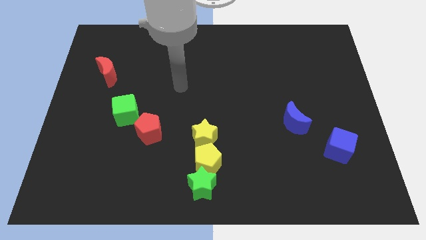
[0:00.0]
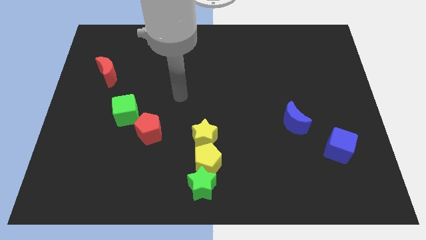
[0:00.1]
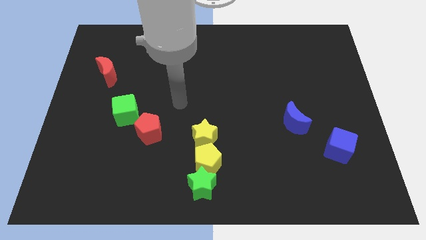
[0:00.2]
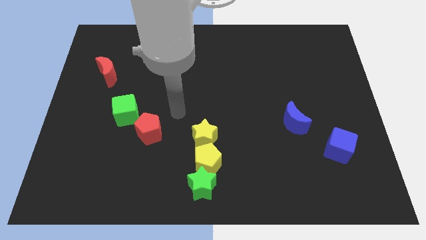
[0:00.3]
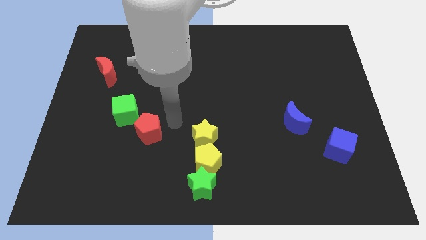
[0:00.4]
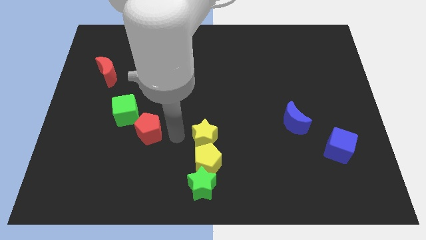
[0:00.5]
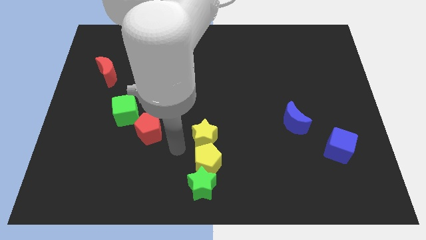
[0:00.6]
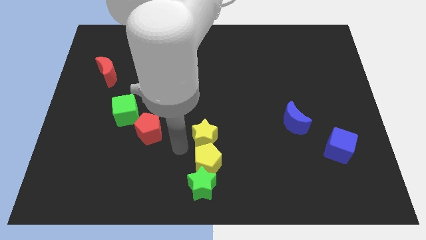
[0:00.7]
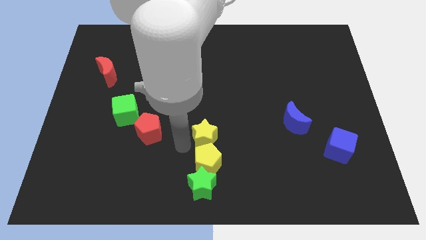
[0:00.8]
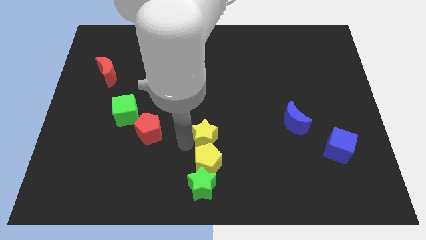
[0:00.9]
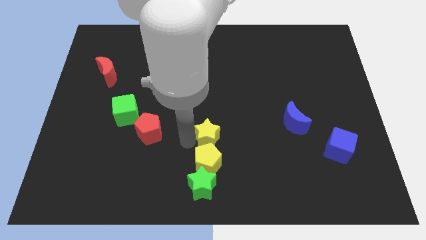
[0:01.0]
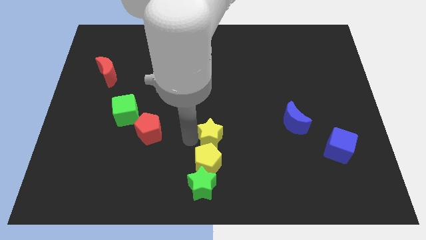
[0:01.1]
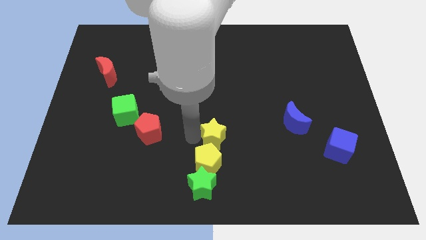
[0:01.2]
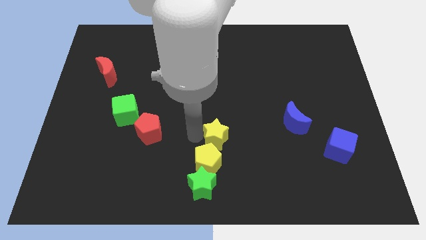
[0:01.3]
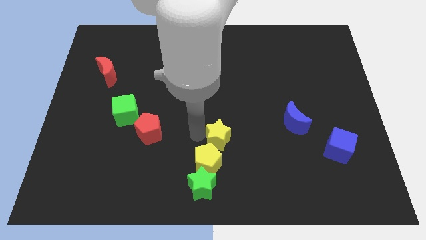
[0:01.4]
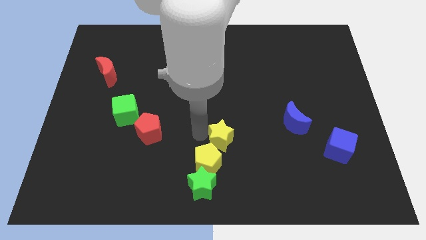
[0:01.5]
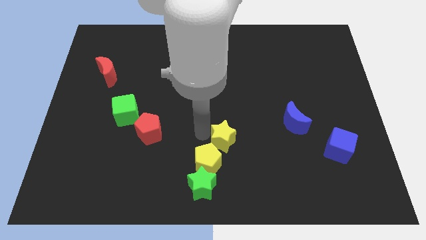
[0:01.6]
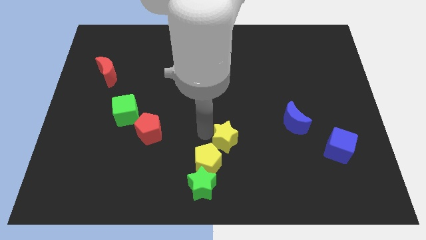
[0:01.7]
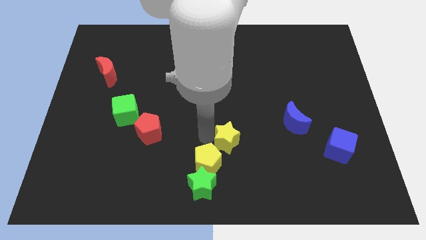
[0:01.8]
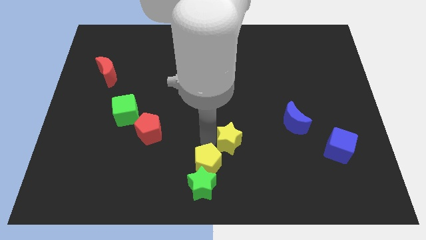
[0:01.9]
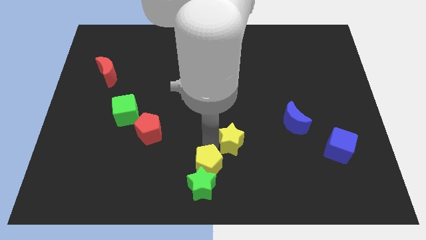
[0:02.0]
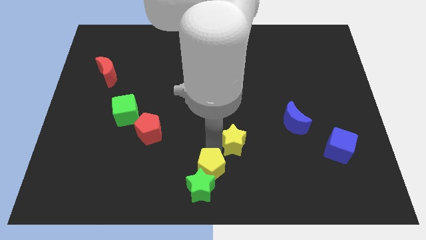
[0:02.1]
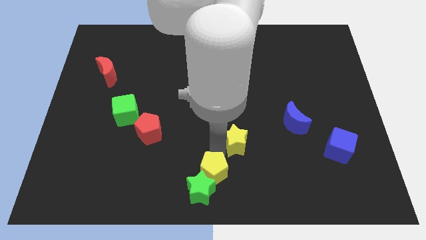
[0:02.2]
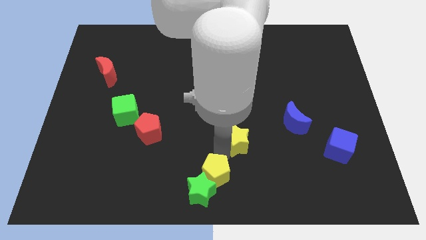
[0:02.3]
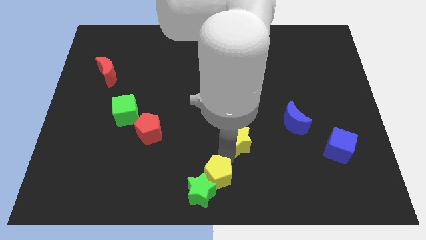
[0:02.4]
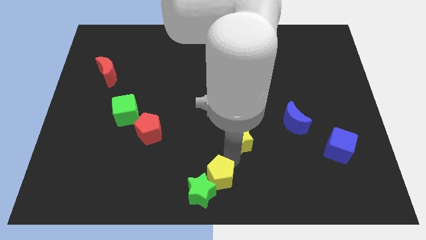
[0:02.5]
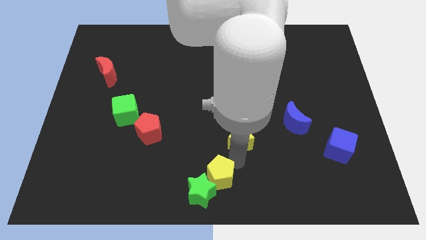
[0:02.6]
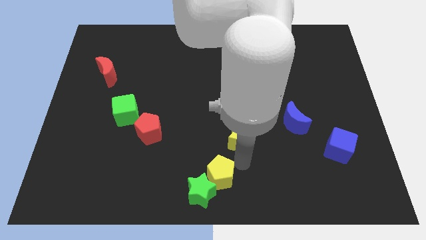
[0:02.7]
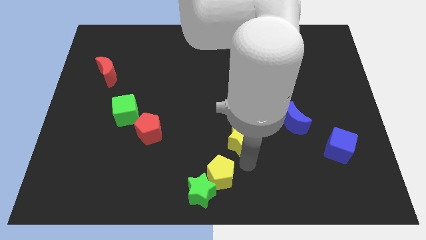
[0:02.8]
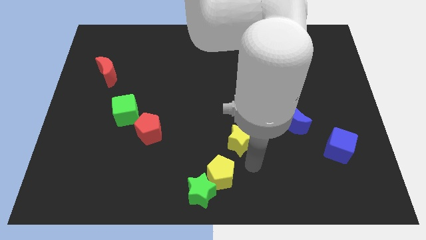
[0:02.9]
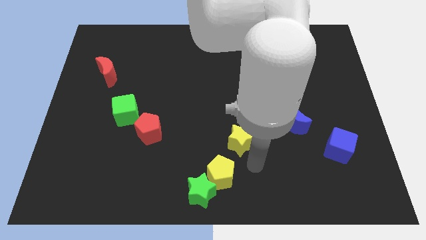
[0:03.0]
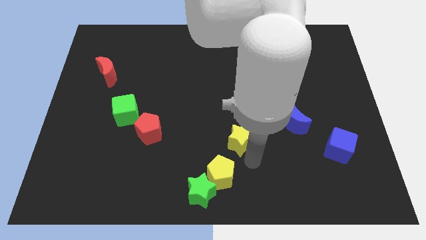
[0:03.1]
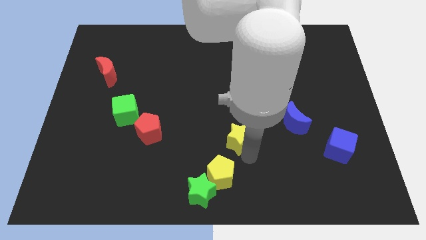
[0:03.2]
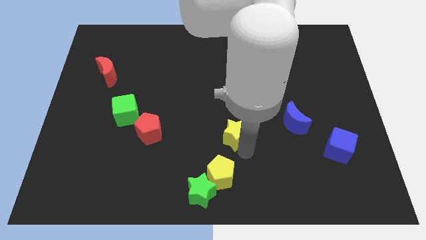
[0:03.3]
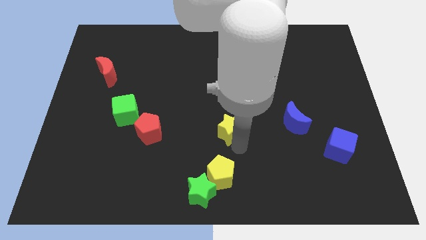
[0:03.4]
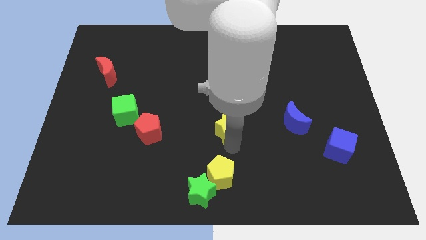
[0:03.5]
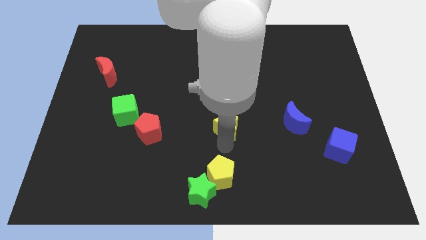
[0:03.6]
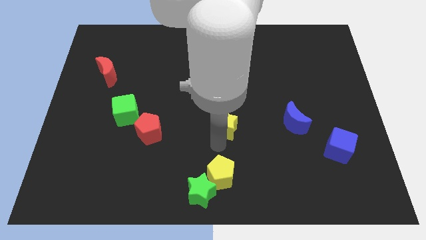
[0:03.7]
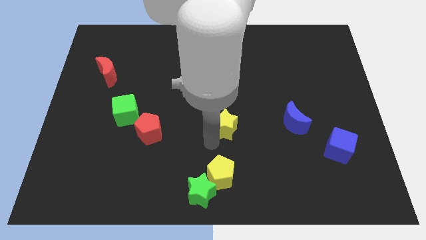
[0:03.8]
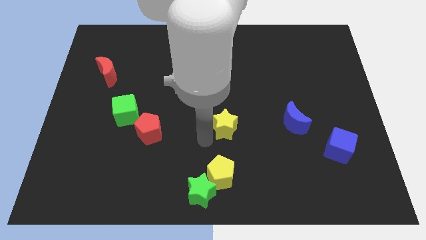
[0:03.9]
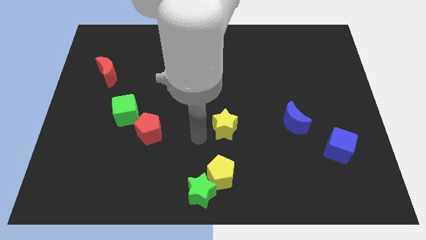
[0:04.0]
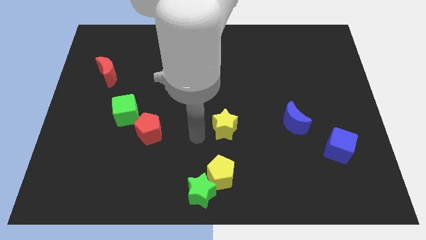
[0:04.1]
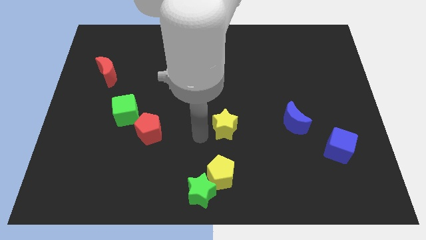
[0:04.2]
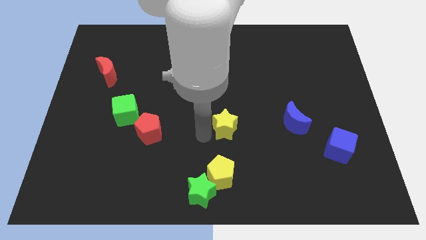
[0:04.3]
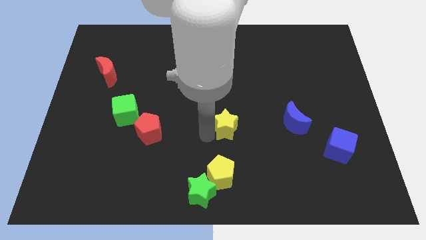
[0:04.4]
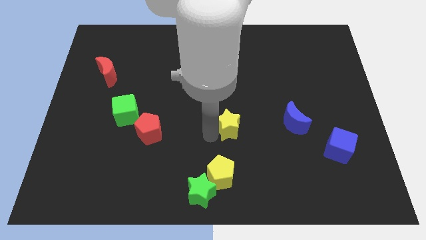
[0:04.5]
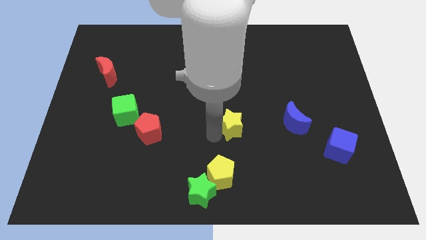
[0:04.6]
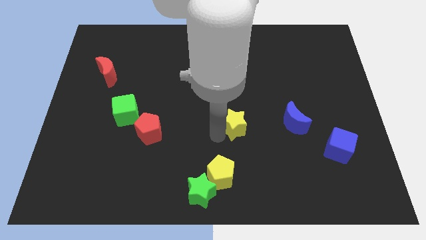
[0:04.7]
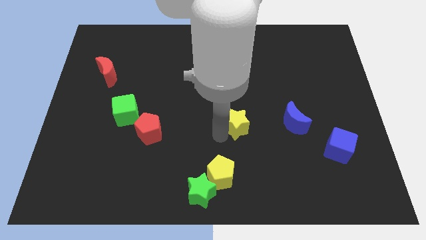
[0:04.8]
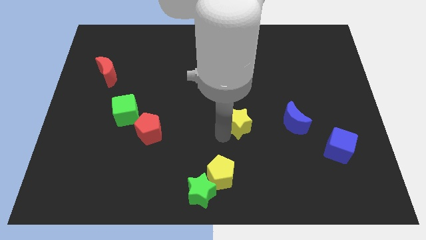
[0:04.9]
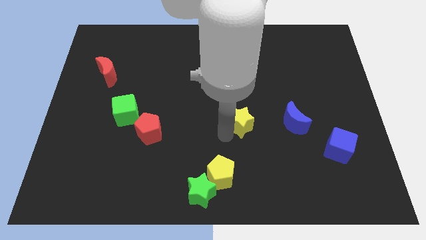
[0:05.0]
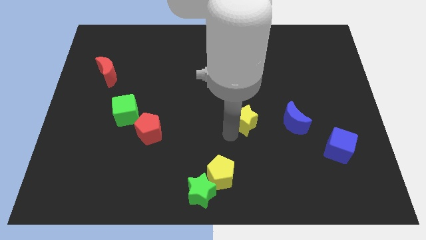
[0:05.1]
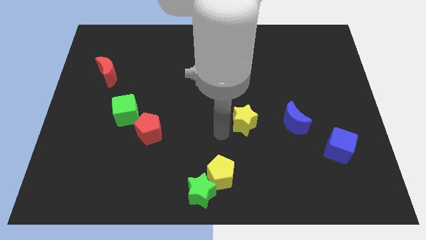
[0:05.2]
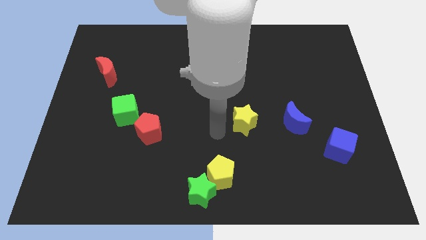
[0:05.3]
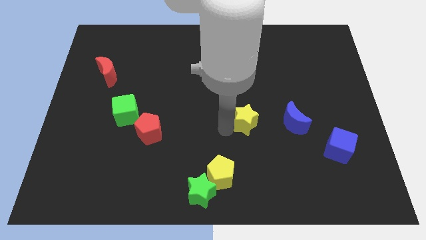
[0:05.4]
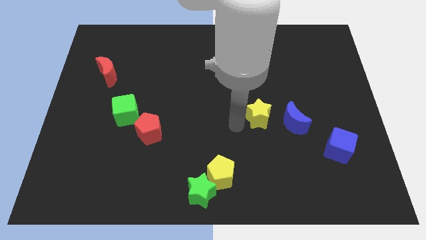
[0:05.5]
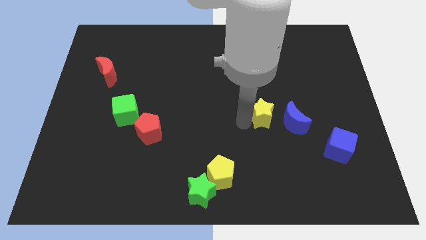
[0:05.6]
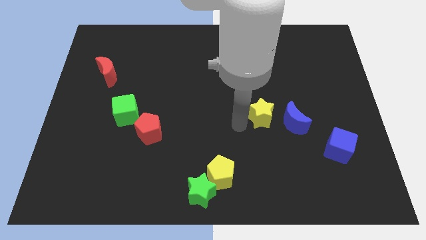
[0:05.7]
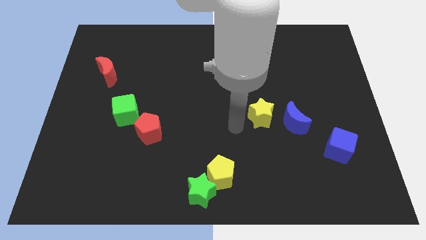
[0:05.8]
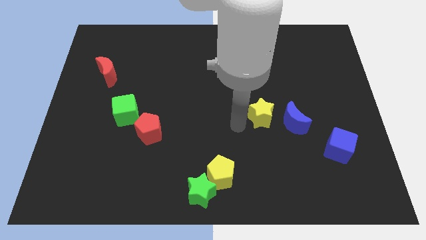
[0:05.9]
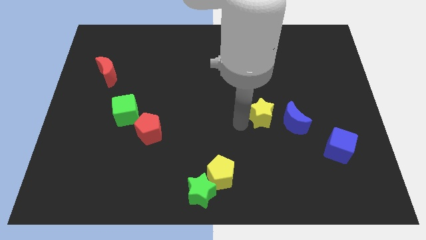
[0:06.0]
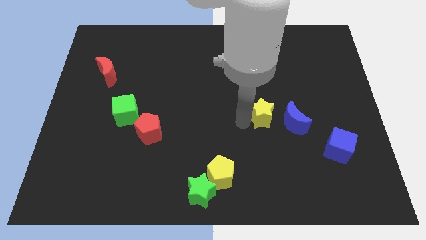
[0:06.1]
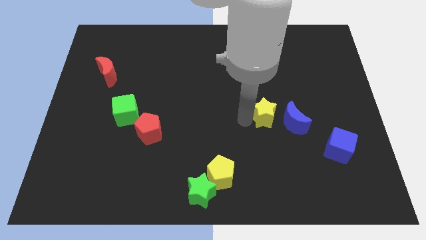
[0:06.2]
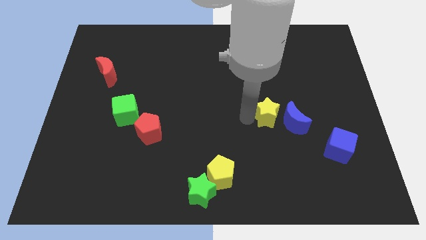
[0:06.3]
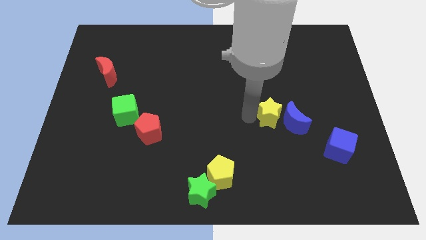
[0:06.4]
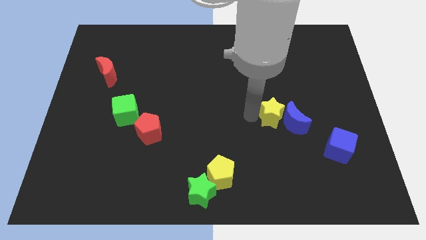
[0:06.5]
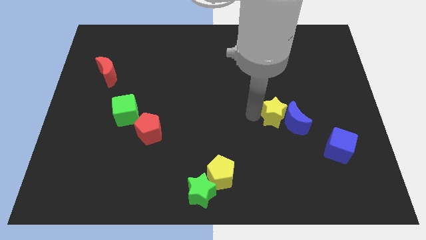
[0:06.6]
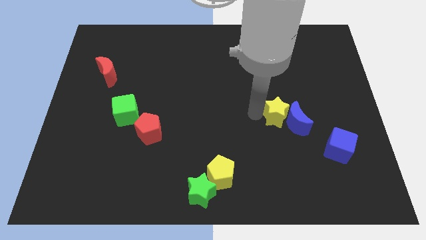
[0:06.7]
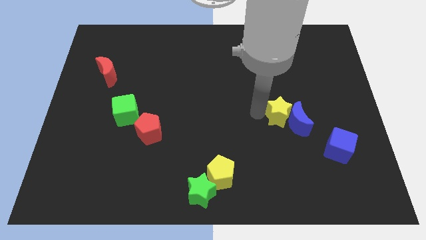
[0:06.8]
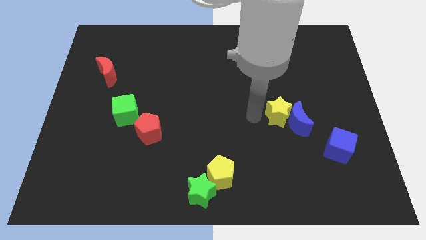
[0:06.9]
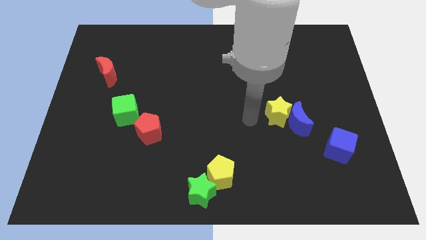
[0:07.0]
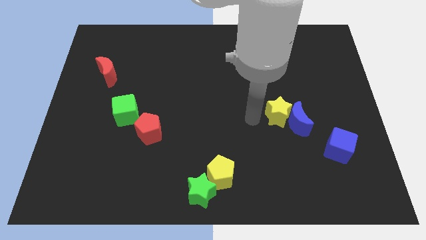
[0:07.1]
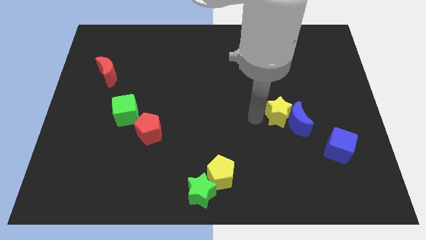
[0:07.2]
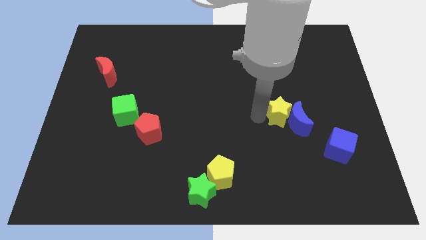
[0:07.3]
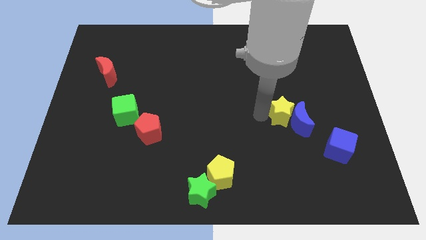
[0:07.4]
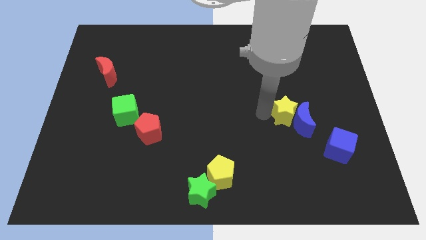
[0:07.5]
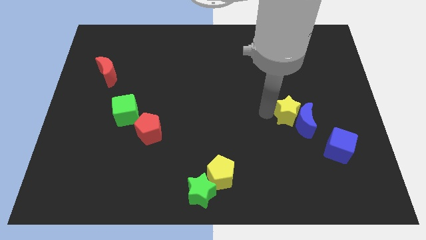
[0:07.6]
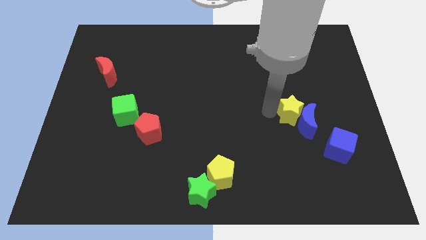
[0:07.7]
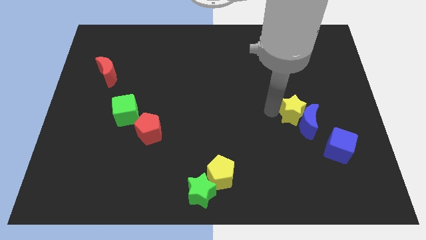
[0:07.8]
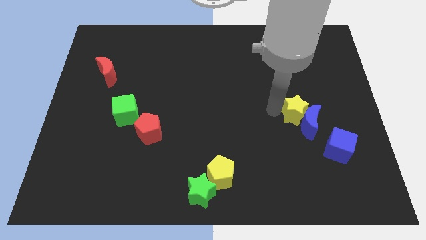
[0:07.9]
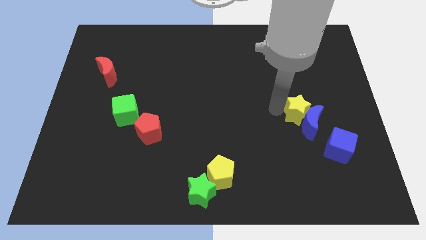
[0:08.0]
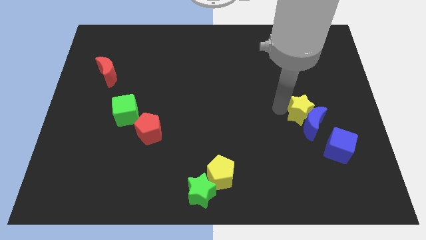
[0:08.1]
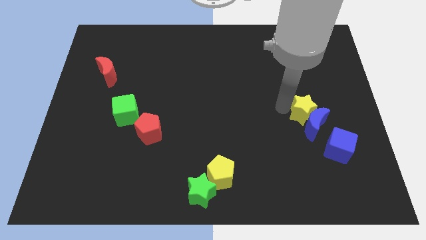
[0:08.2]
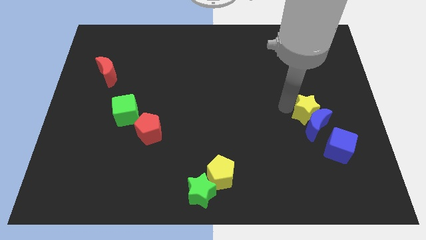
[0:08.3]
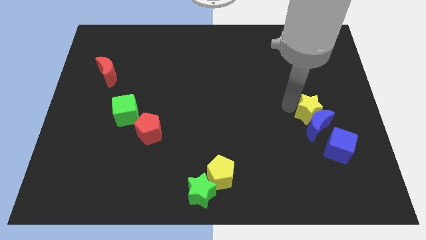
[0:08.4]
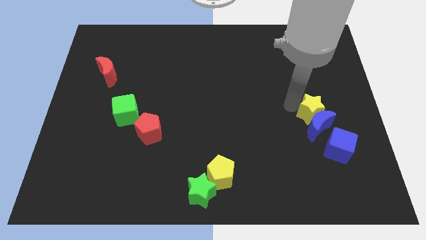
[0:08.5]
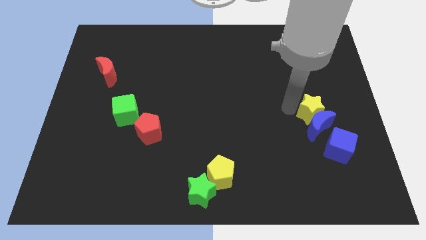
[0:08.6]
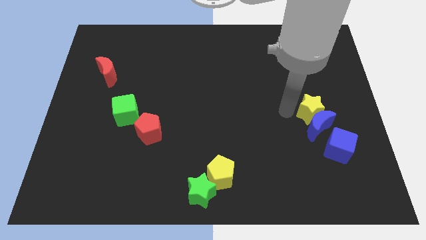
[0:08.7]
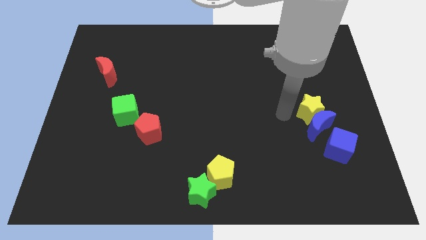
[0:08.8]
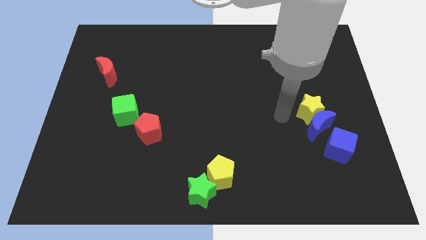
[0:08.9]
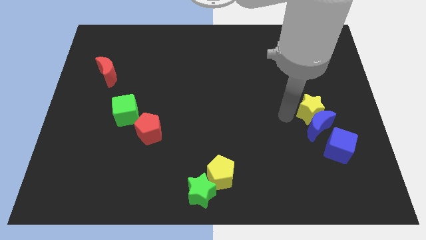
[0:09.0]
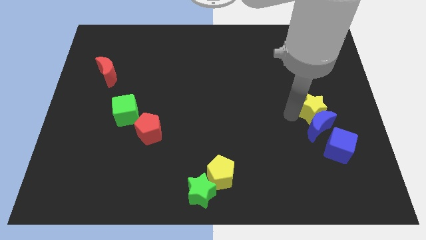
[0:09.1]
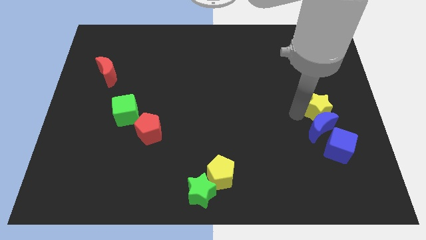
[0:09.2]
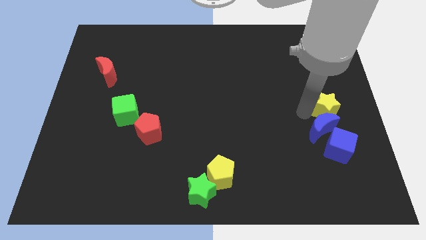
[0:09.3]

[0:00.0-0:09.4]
slide the yellow star to the center right
